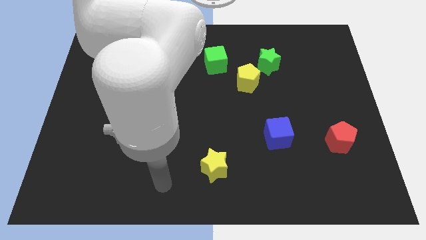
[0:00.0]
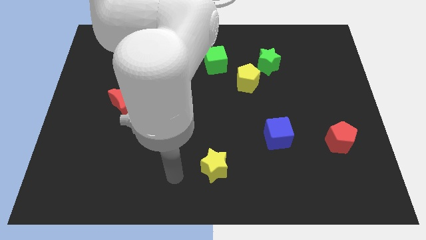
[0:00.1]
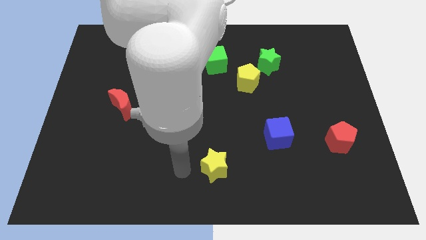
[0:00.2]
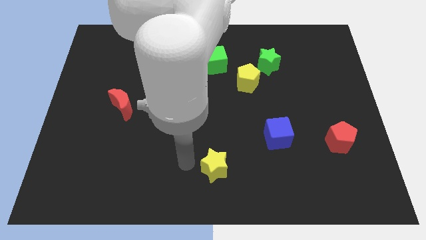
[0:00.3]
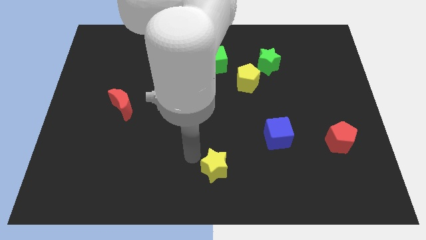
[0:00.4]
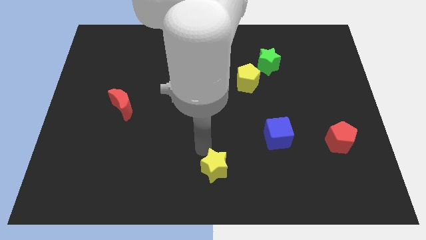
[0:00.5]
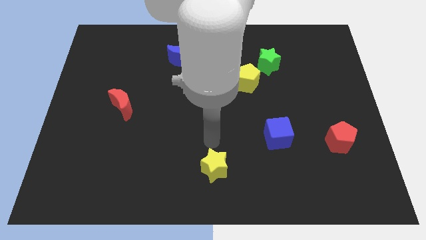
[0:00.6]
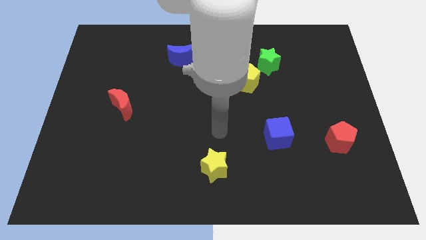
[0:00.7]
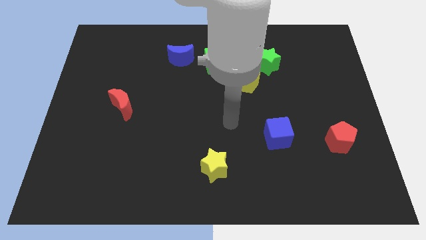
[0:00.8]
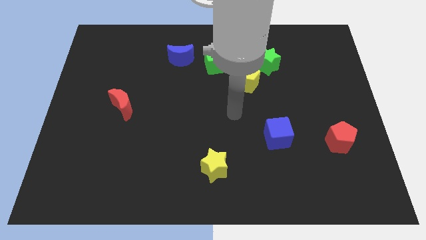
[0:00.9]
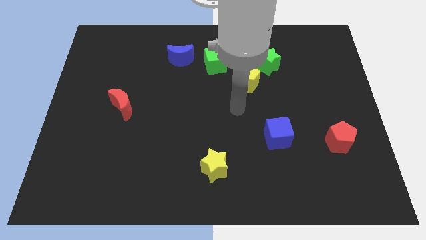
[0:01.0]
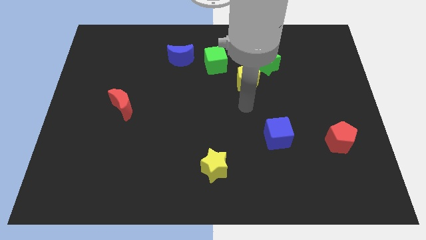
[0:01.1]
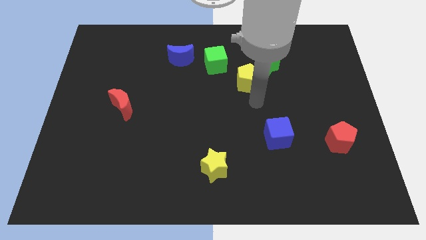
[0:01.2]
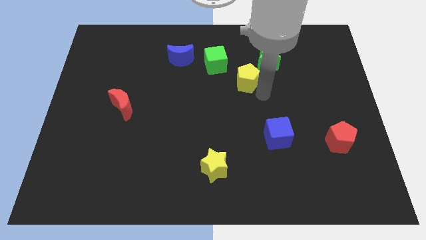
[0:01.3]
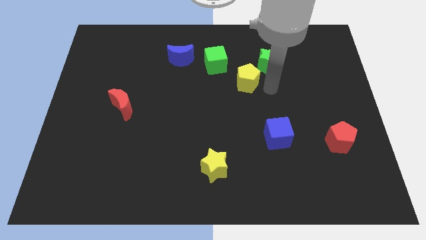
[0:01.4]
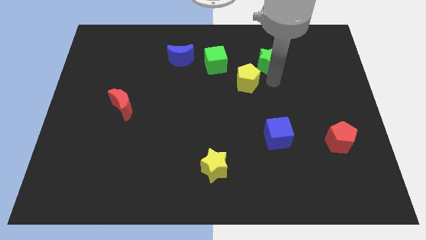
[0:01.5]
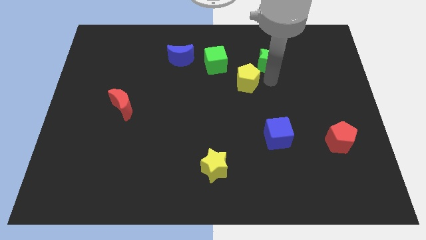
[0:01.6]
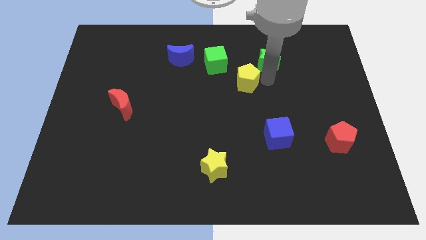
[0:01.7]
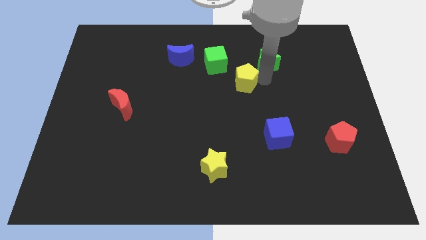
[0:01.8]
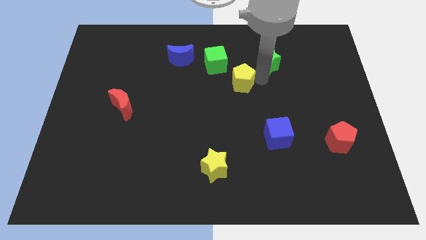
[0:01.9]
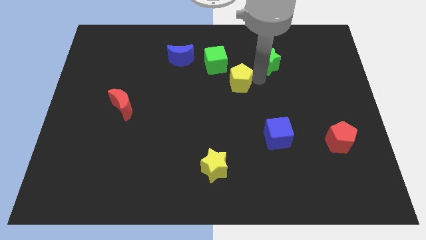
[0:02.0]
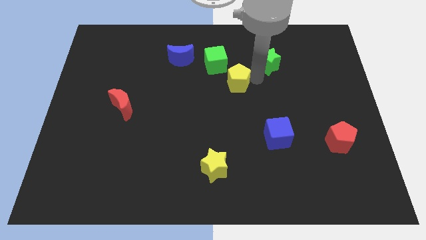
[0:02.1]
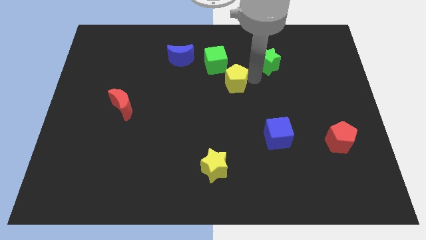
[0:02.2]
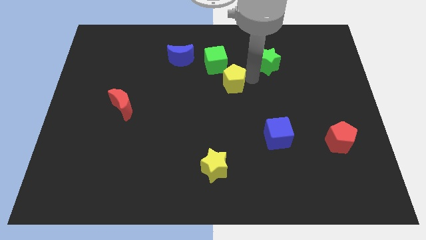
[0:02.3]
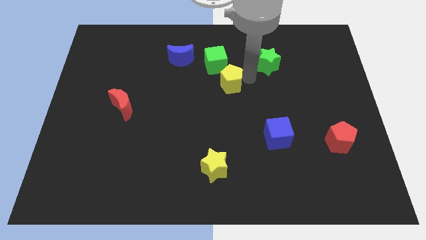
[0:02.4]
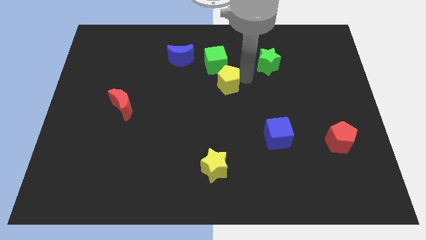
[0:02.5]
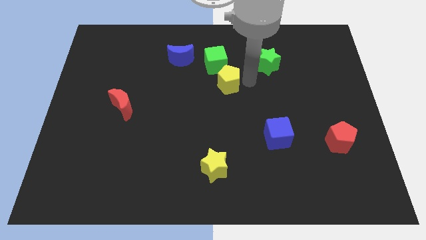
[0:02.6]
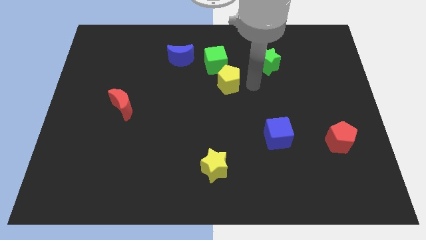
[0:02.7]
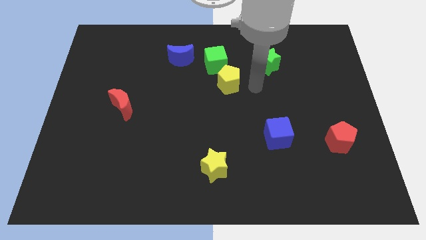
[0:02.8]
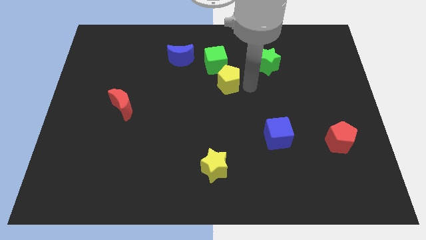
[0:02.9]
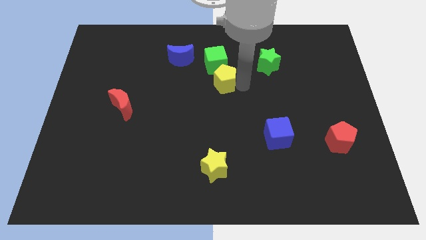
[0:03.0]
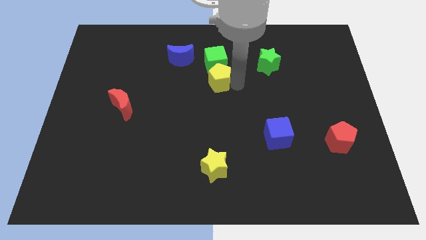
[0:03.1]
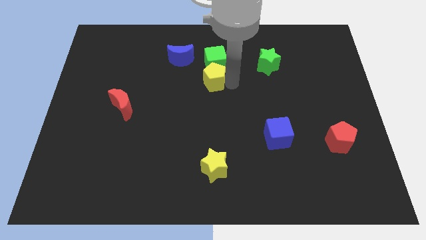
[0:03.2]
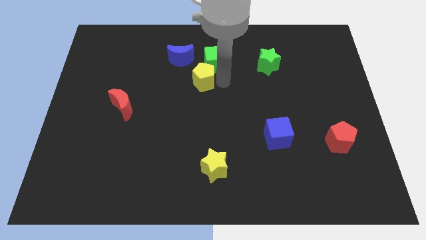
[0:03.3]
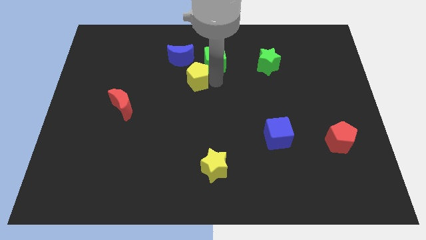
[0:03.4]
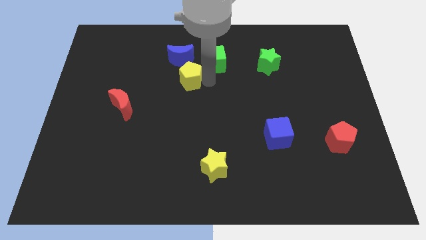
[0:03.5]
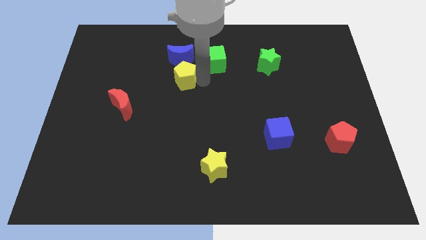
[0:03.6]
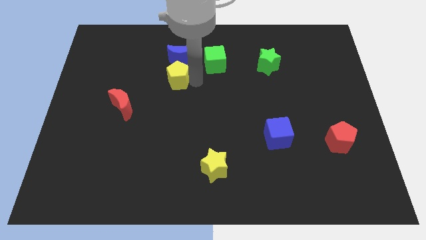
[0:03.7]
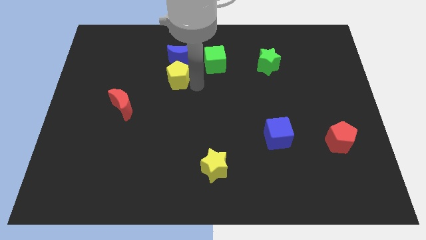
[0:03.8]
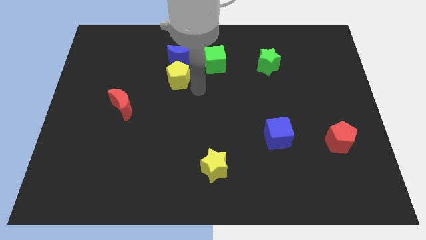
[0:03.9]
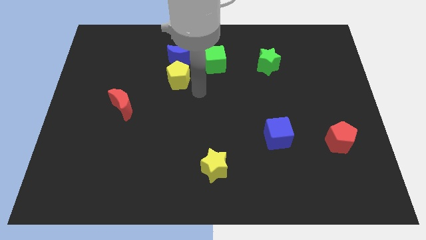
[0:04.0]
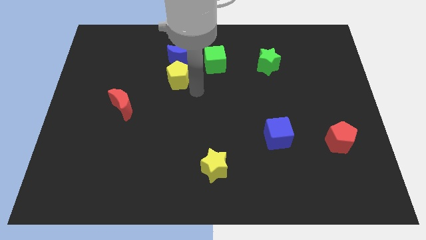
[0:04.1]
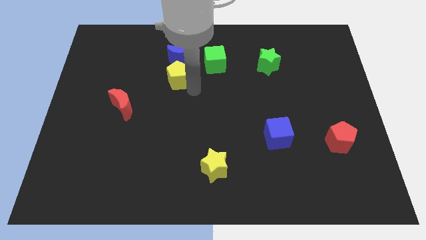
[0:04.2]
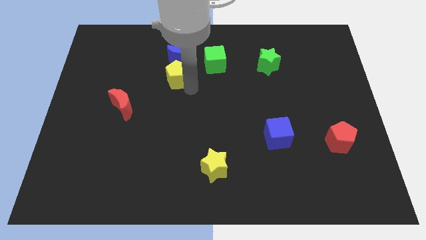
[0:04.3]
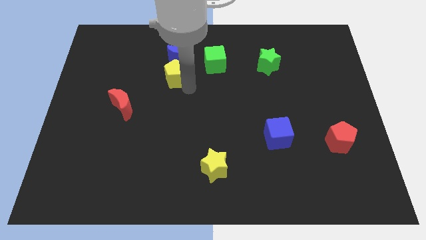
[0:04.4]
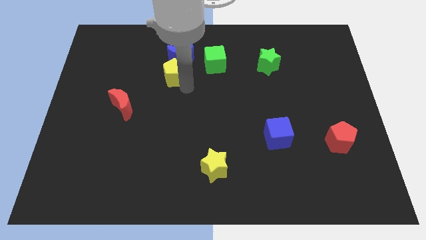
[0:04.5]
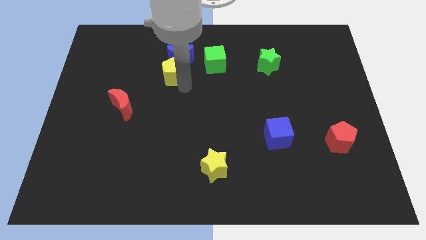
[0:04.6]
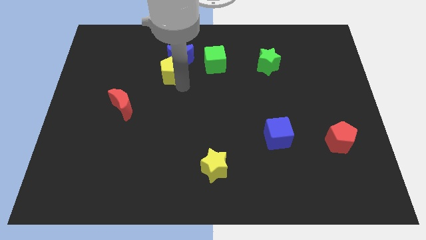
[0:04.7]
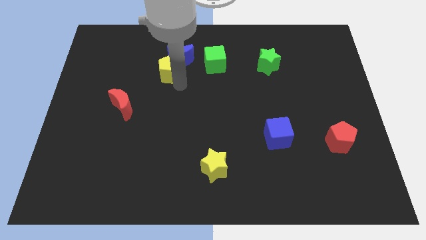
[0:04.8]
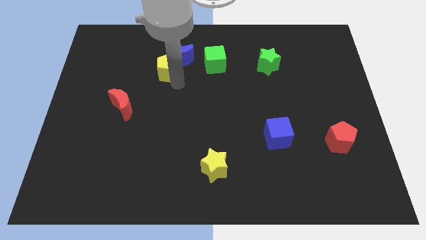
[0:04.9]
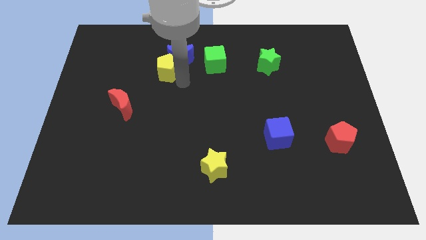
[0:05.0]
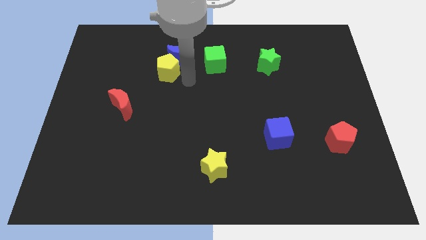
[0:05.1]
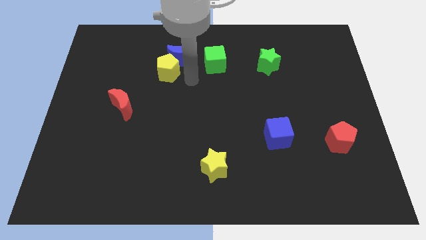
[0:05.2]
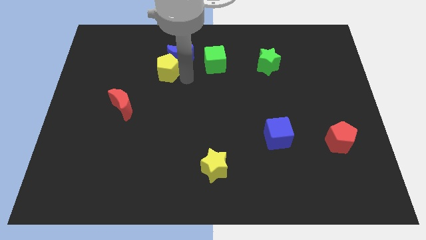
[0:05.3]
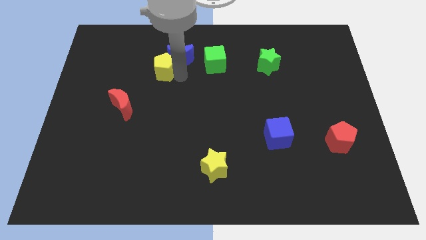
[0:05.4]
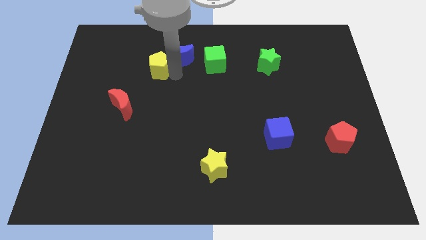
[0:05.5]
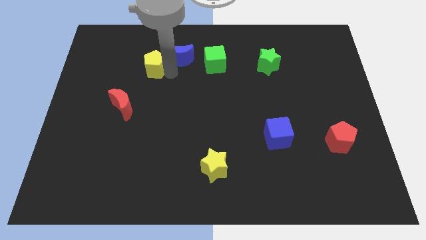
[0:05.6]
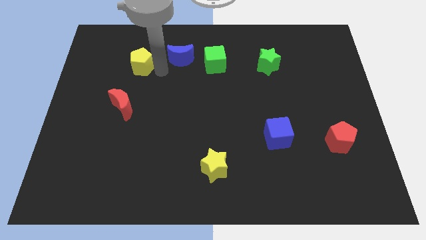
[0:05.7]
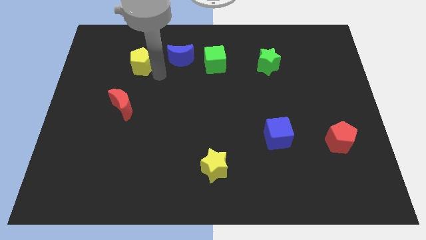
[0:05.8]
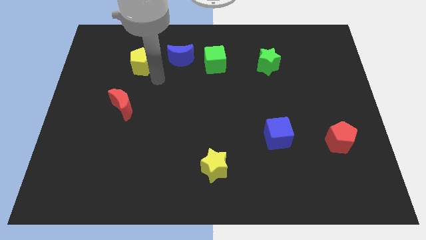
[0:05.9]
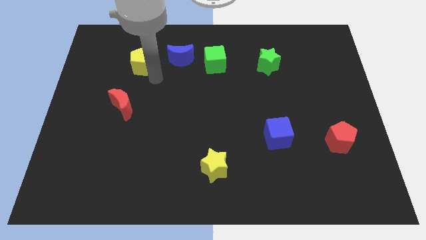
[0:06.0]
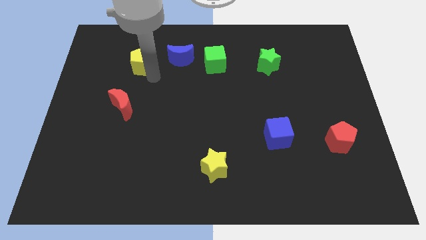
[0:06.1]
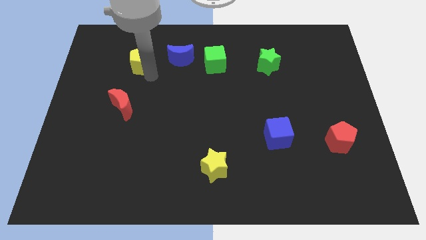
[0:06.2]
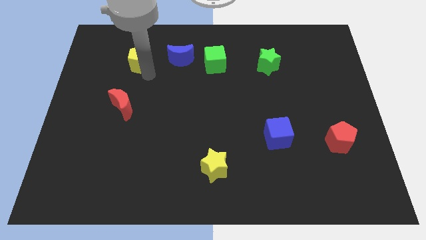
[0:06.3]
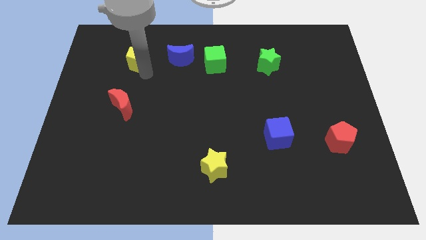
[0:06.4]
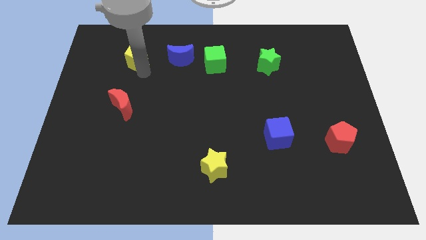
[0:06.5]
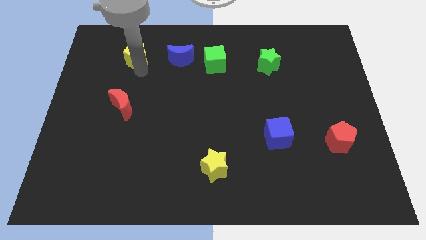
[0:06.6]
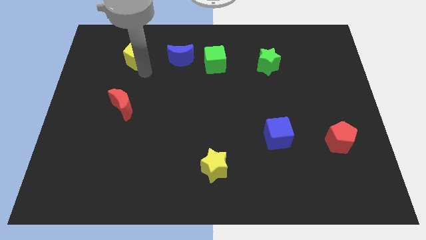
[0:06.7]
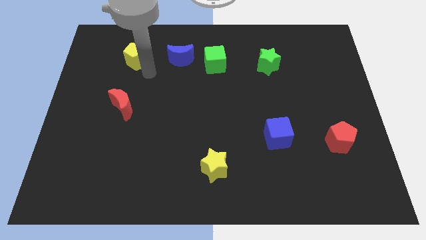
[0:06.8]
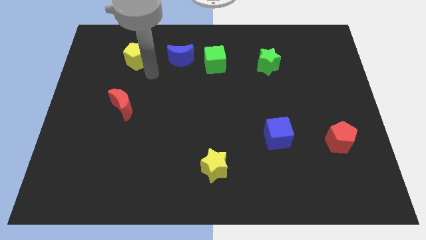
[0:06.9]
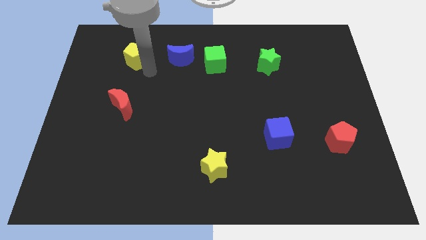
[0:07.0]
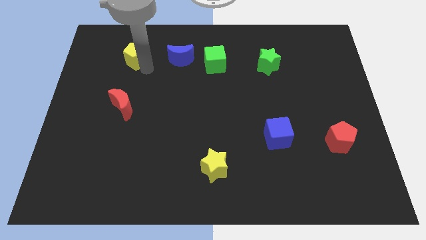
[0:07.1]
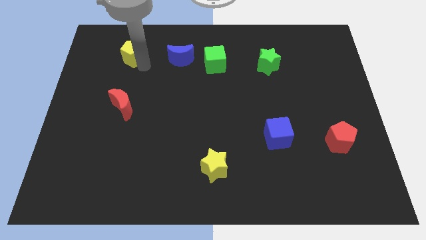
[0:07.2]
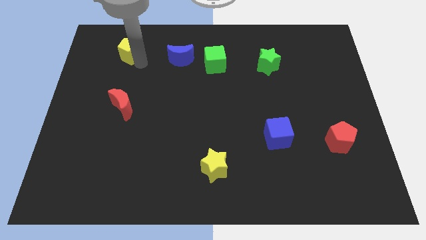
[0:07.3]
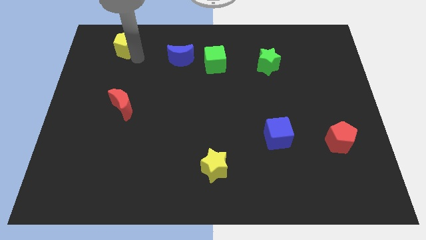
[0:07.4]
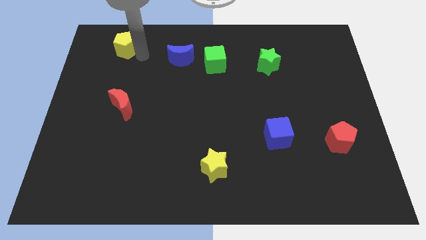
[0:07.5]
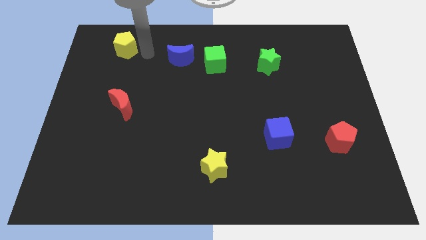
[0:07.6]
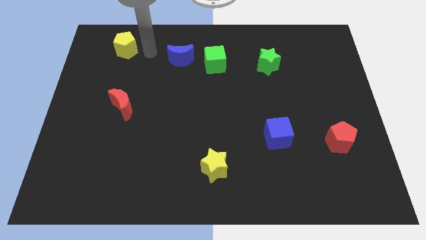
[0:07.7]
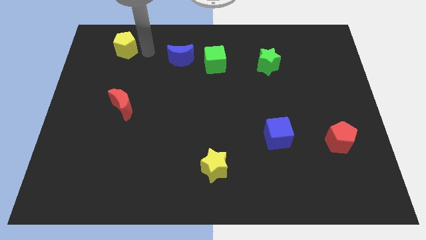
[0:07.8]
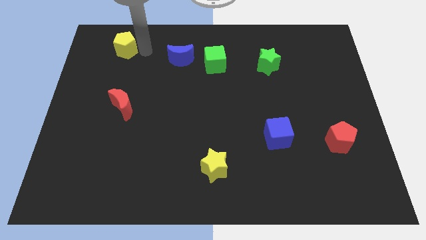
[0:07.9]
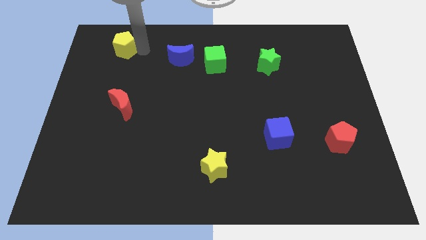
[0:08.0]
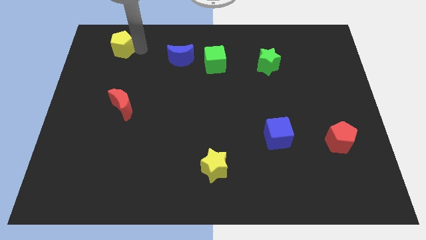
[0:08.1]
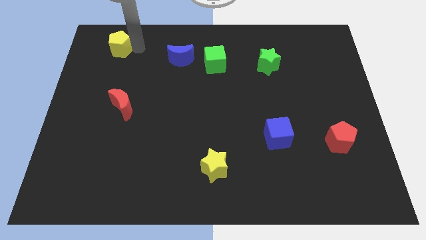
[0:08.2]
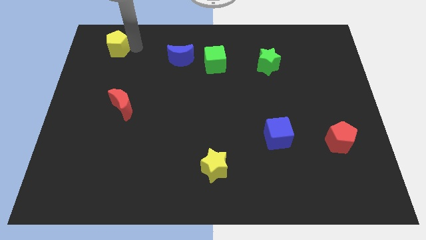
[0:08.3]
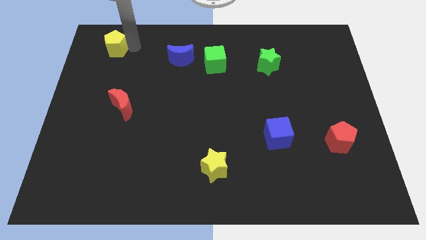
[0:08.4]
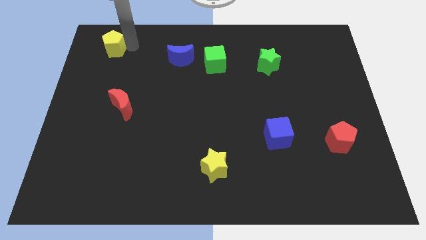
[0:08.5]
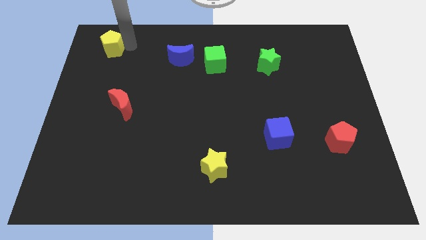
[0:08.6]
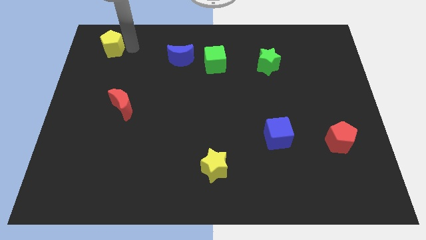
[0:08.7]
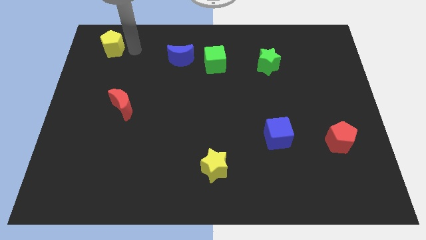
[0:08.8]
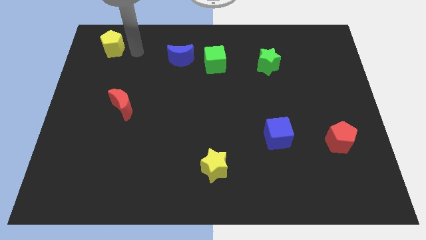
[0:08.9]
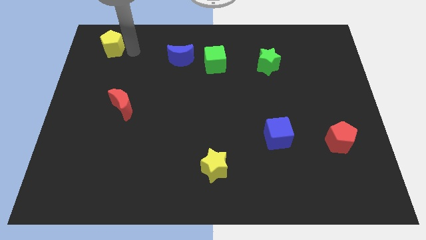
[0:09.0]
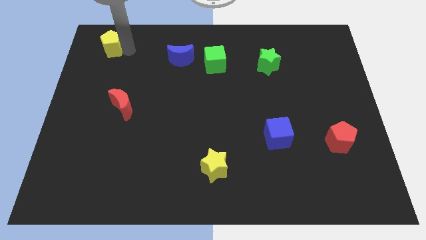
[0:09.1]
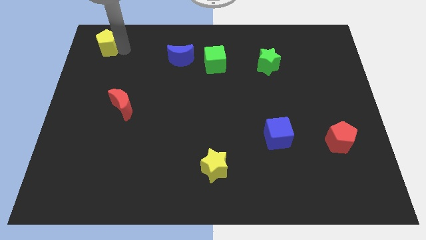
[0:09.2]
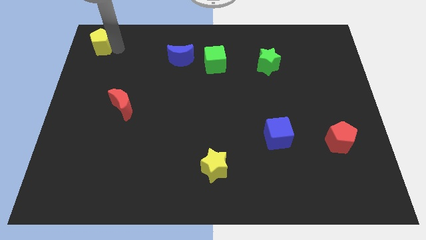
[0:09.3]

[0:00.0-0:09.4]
slide the yellow pentagon to the top left corner
